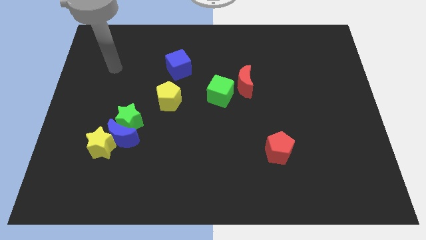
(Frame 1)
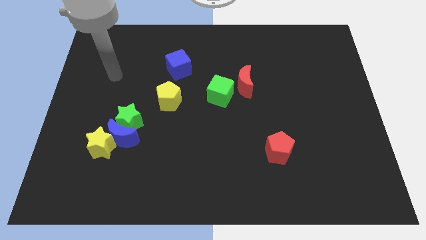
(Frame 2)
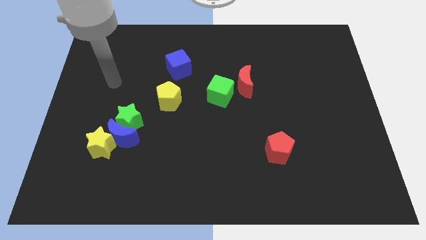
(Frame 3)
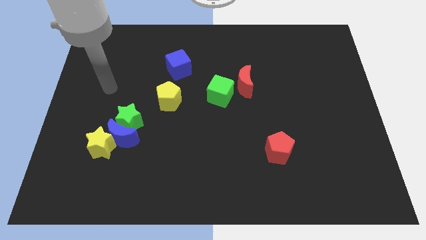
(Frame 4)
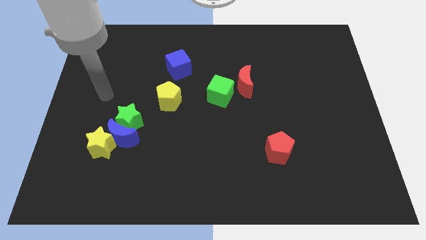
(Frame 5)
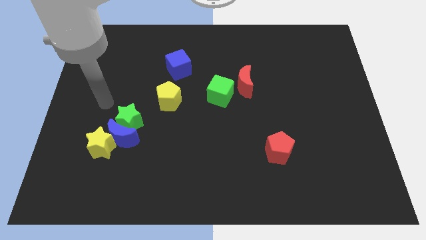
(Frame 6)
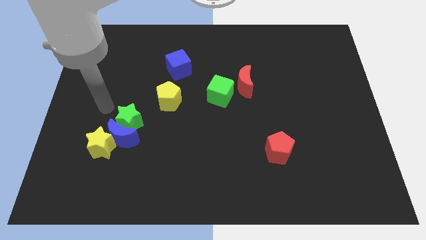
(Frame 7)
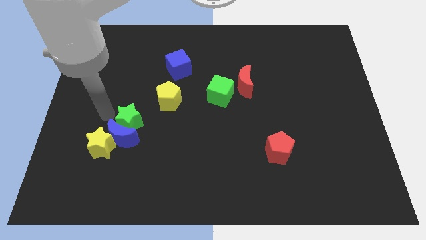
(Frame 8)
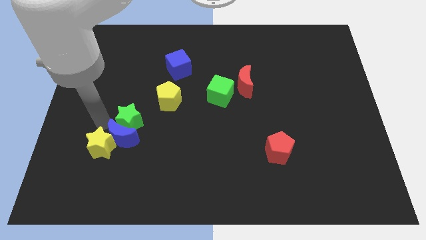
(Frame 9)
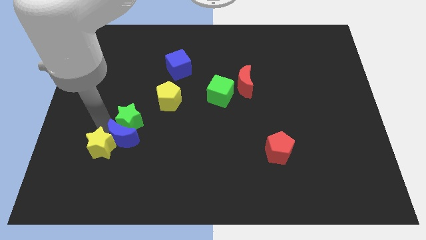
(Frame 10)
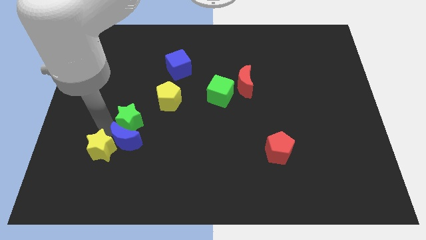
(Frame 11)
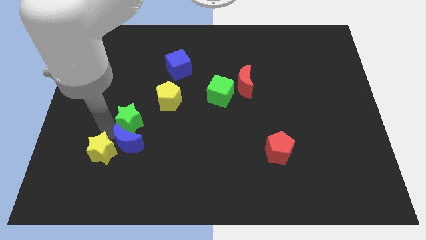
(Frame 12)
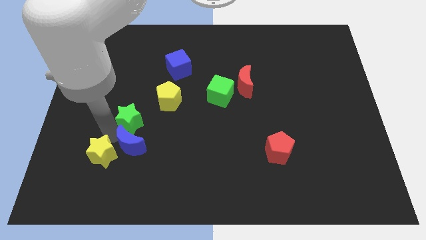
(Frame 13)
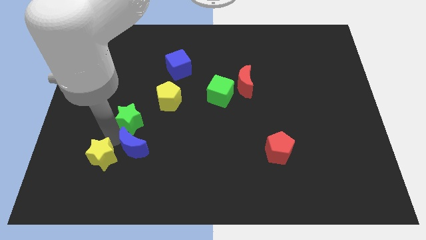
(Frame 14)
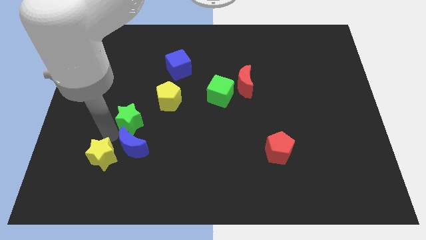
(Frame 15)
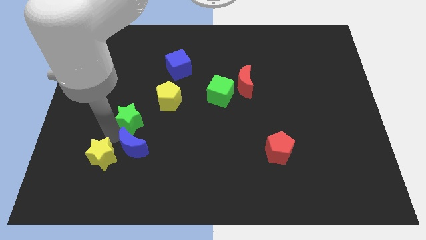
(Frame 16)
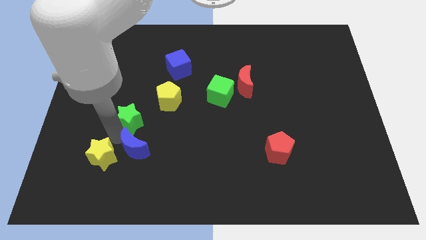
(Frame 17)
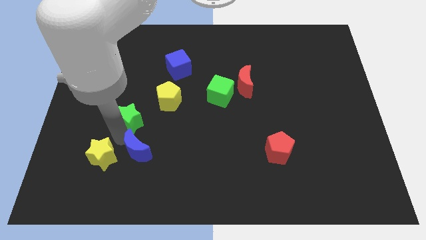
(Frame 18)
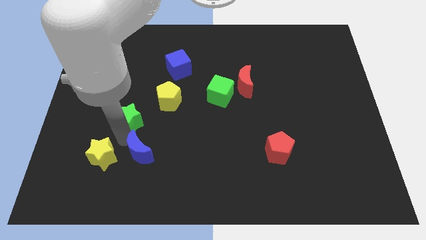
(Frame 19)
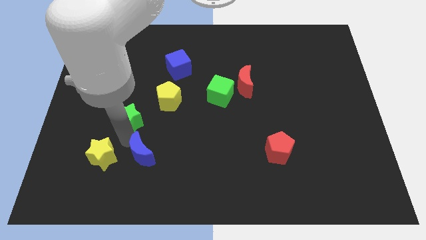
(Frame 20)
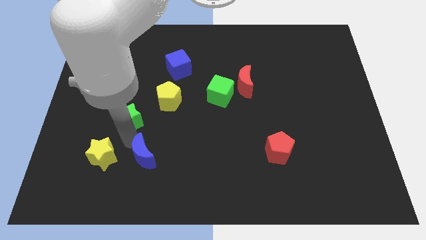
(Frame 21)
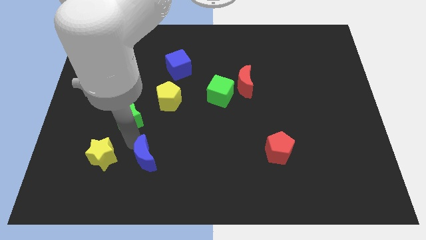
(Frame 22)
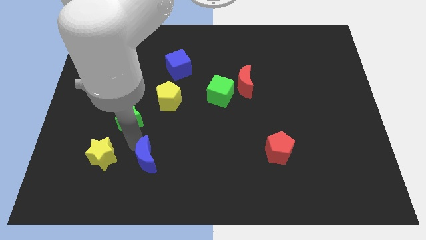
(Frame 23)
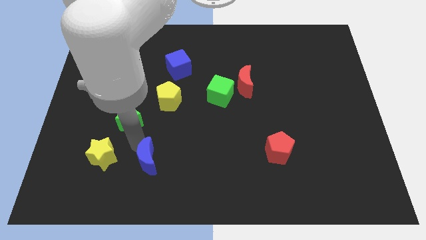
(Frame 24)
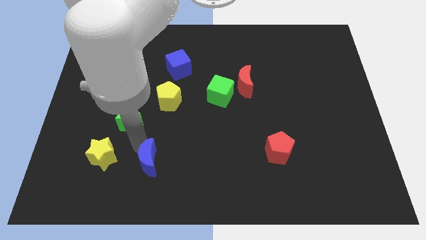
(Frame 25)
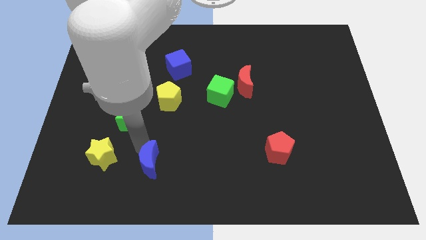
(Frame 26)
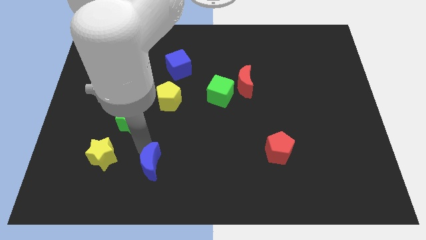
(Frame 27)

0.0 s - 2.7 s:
move the blue moon away from the green star and yellow star

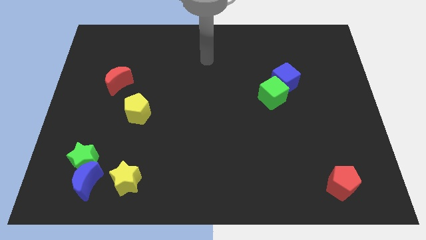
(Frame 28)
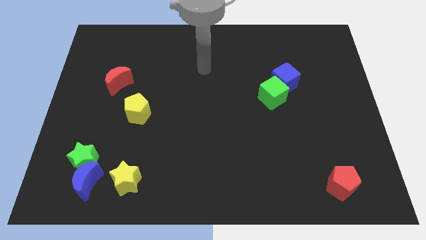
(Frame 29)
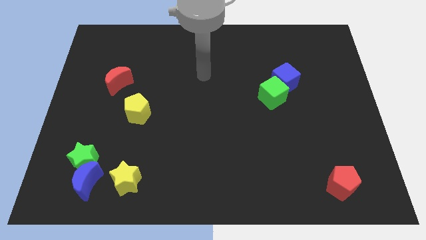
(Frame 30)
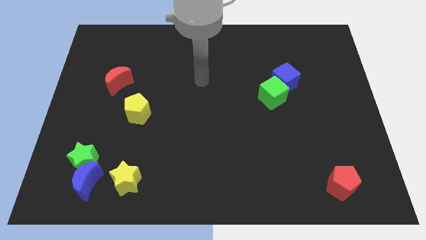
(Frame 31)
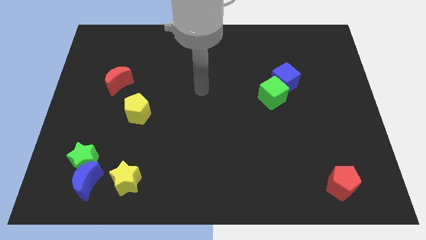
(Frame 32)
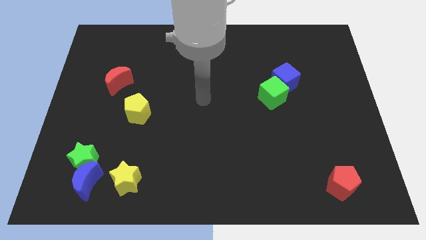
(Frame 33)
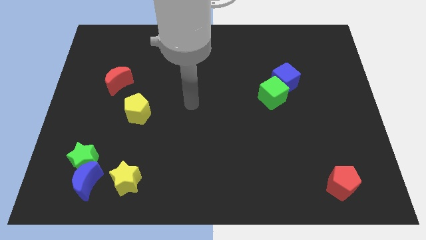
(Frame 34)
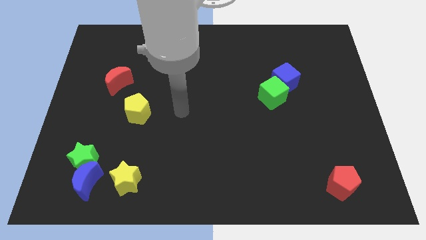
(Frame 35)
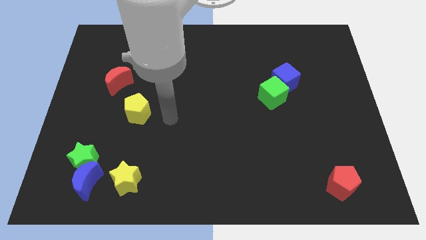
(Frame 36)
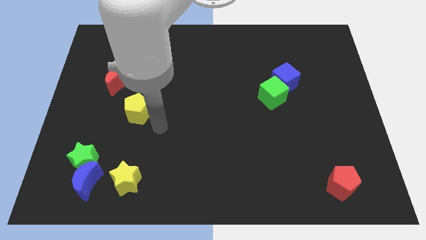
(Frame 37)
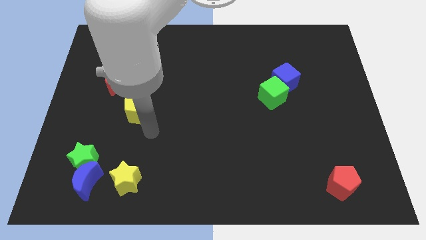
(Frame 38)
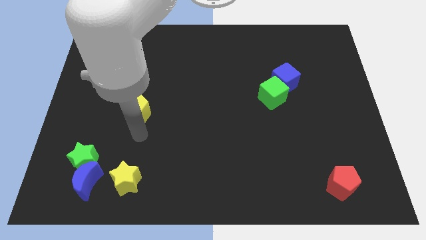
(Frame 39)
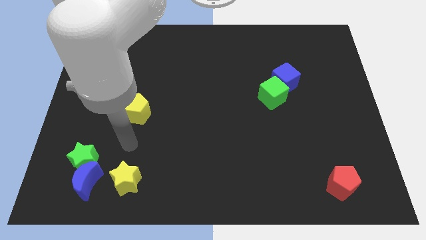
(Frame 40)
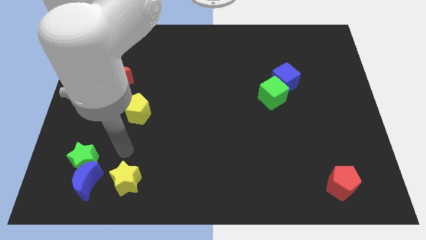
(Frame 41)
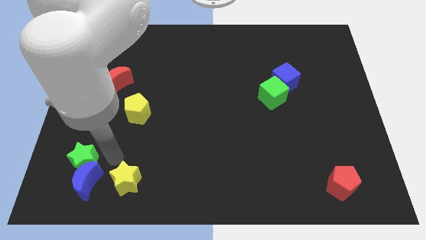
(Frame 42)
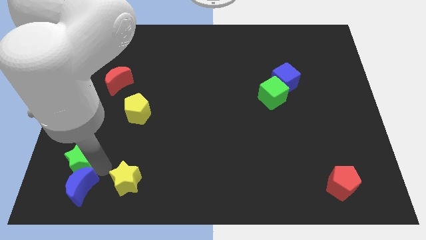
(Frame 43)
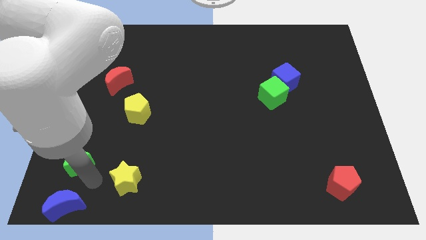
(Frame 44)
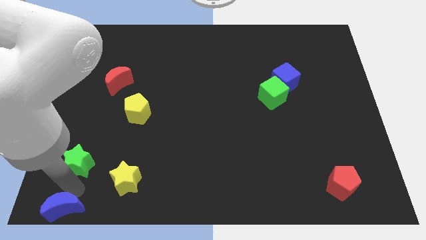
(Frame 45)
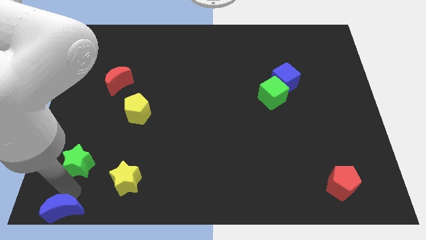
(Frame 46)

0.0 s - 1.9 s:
separate the green star from the blue moon

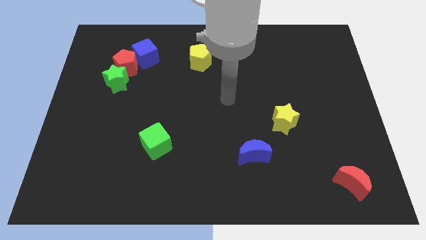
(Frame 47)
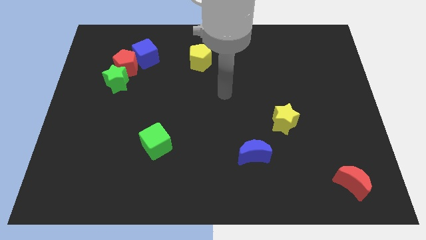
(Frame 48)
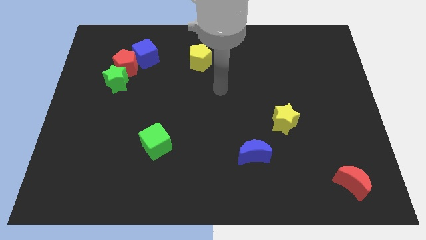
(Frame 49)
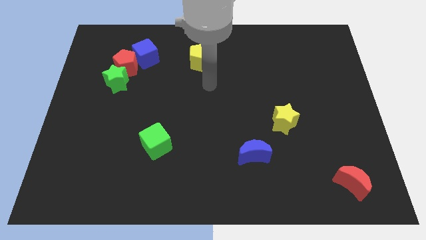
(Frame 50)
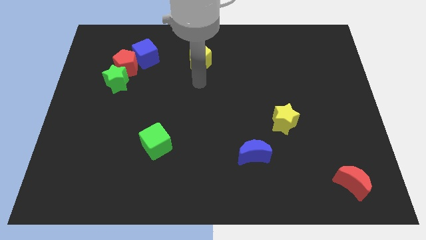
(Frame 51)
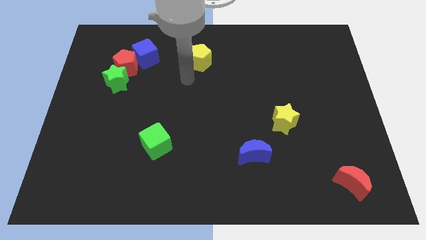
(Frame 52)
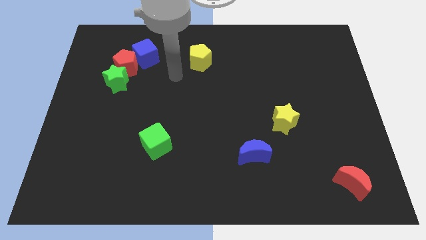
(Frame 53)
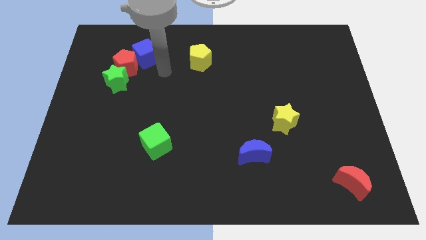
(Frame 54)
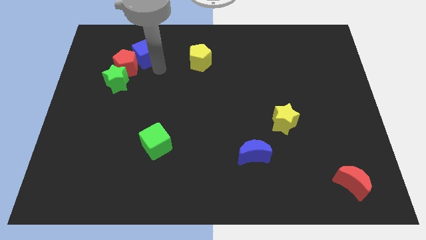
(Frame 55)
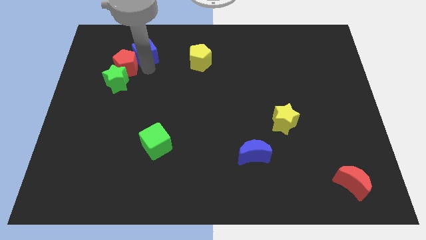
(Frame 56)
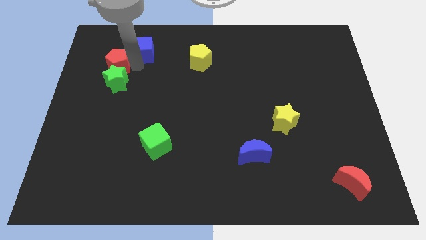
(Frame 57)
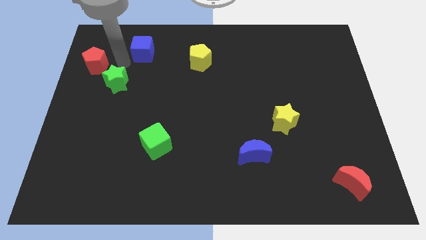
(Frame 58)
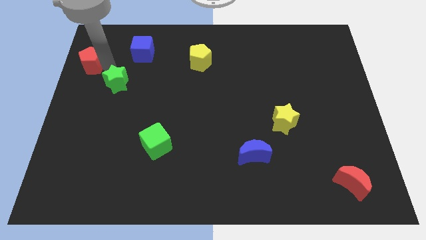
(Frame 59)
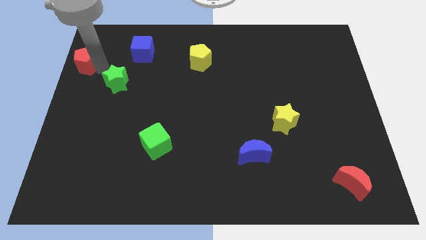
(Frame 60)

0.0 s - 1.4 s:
separate the green star from the red pentagon

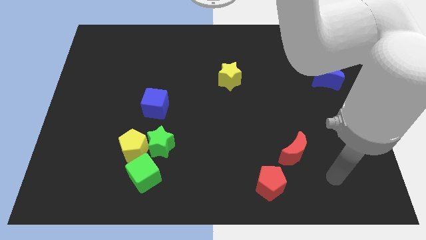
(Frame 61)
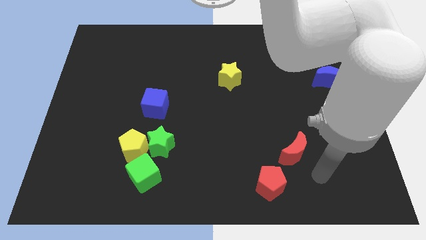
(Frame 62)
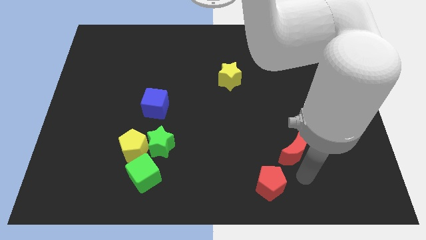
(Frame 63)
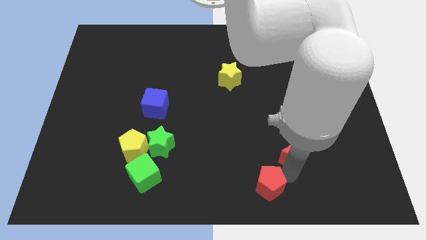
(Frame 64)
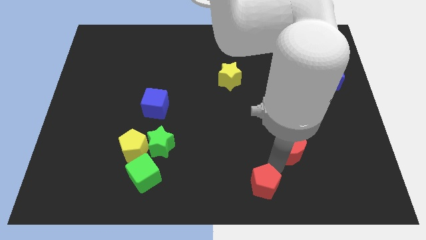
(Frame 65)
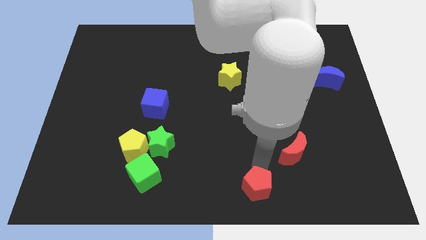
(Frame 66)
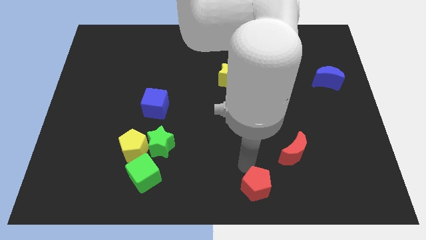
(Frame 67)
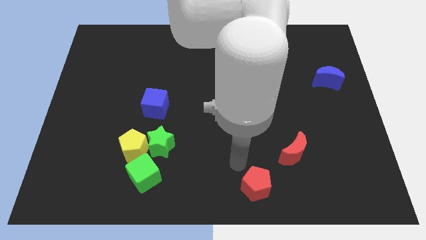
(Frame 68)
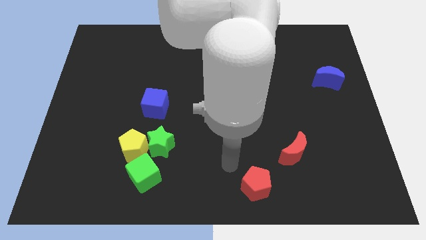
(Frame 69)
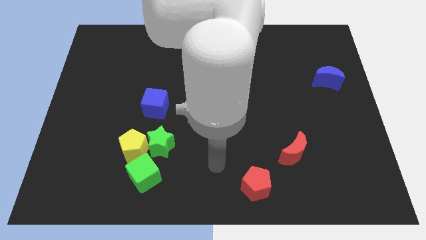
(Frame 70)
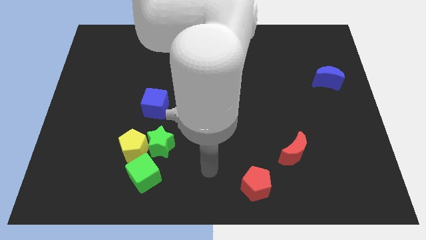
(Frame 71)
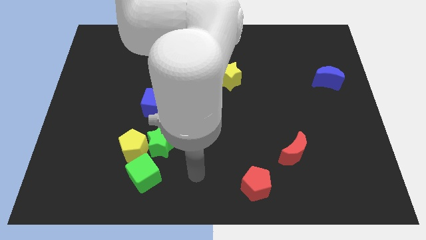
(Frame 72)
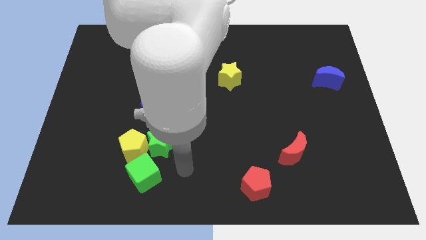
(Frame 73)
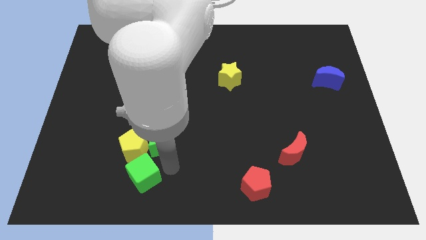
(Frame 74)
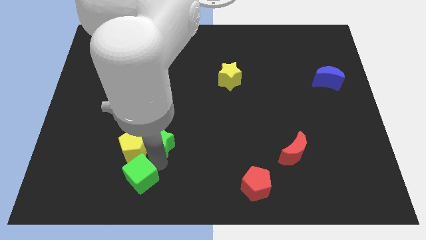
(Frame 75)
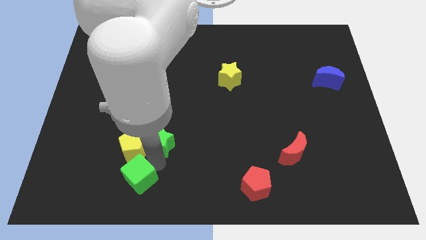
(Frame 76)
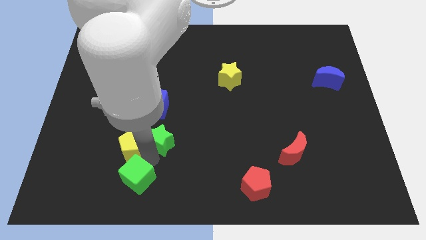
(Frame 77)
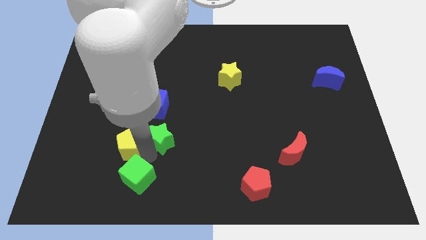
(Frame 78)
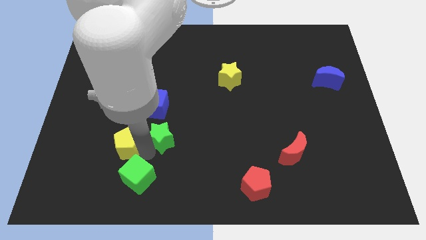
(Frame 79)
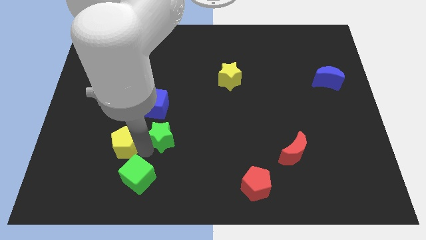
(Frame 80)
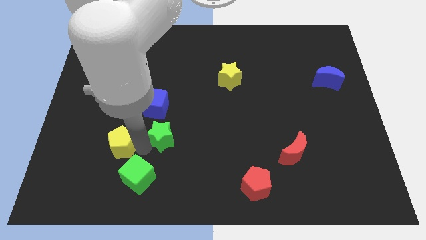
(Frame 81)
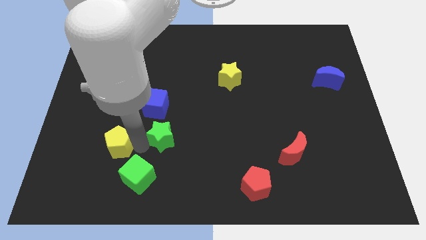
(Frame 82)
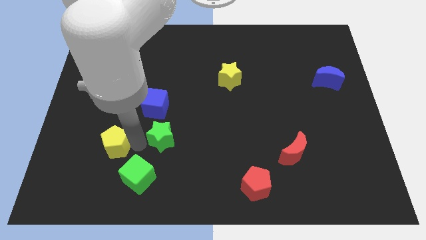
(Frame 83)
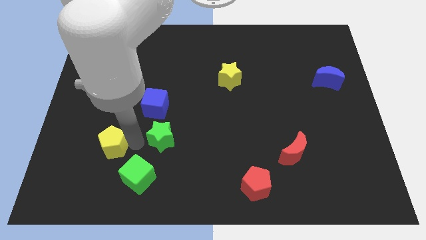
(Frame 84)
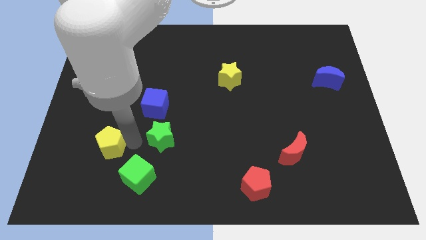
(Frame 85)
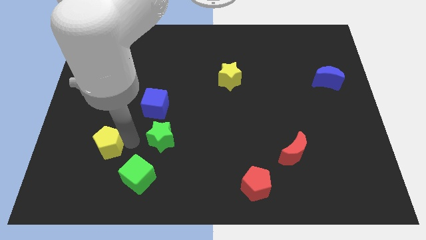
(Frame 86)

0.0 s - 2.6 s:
move the yellow pentagon away from the green star and green cube

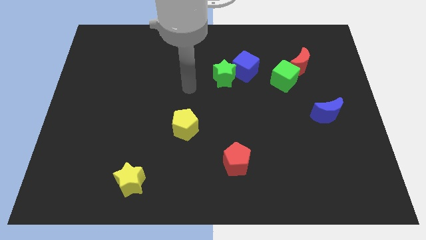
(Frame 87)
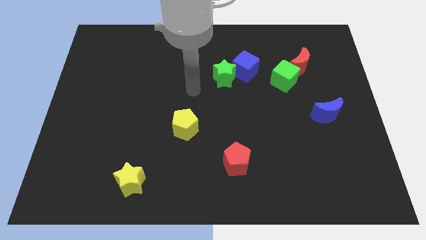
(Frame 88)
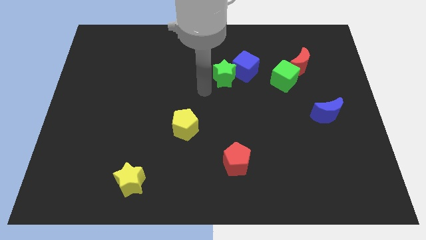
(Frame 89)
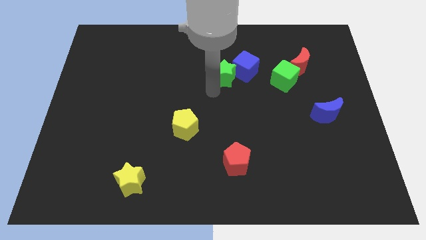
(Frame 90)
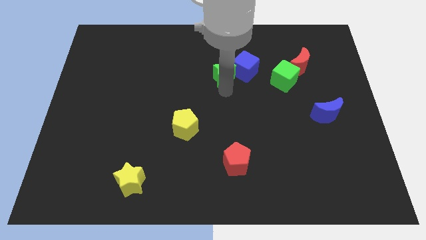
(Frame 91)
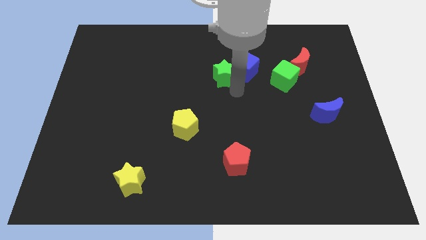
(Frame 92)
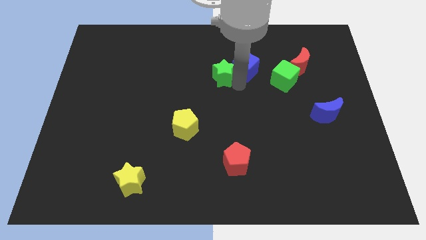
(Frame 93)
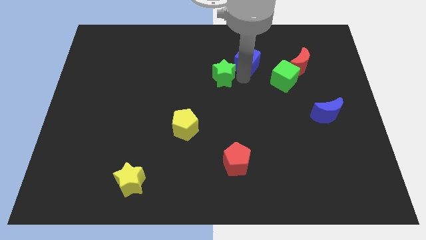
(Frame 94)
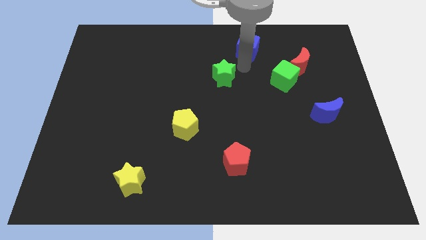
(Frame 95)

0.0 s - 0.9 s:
pull the green star apart from the blue cube
